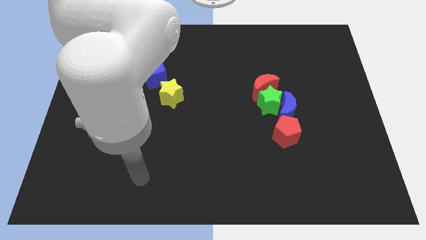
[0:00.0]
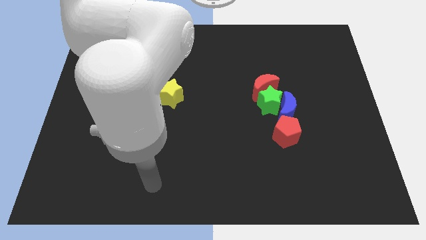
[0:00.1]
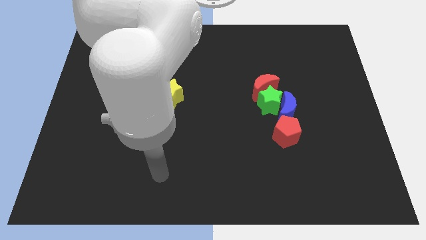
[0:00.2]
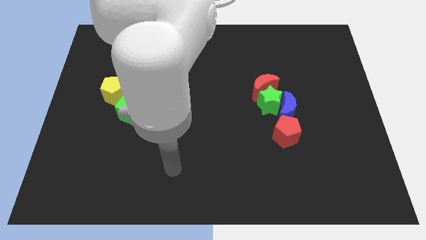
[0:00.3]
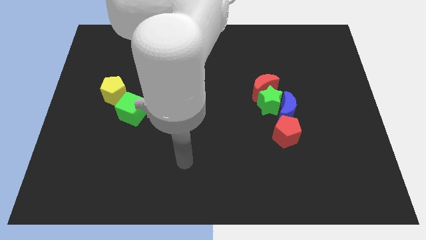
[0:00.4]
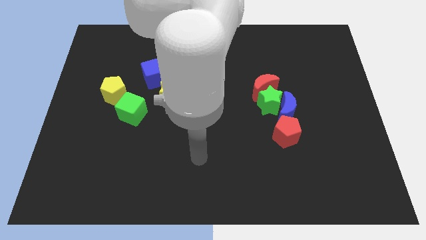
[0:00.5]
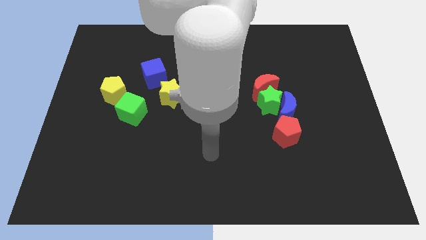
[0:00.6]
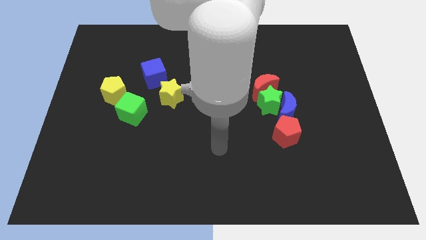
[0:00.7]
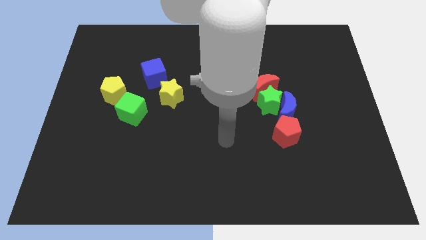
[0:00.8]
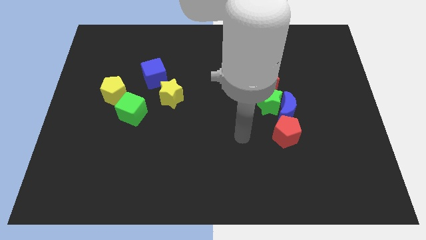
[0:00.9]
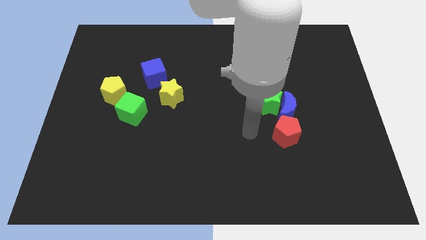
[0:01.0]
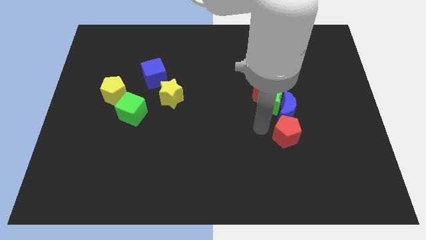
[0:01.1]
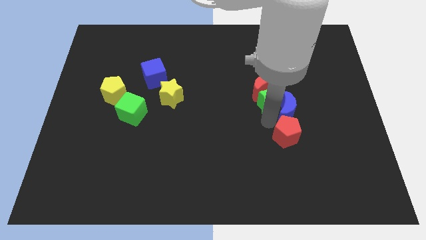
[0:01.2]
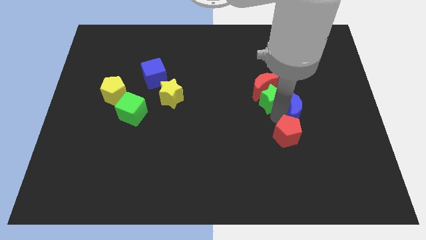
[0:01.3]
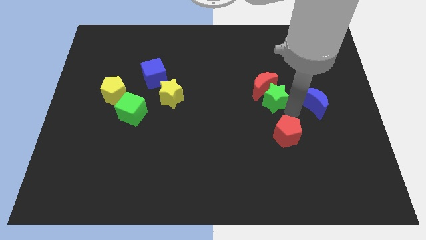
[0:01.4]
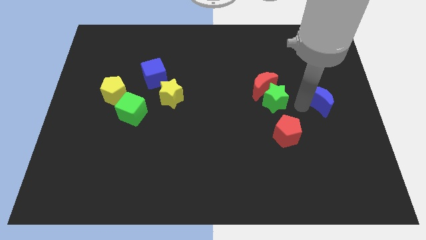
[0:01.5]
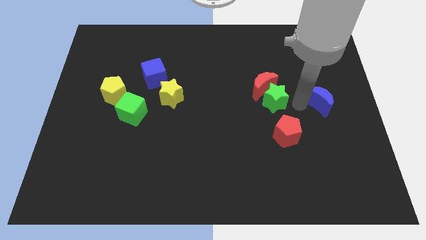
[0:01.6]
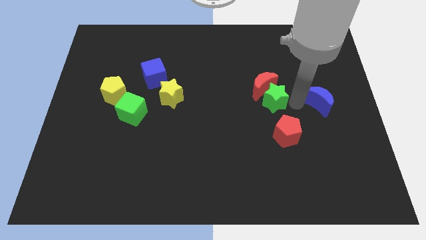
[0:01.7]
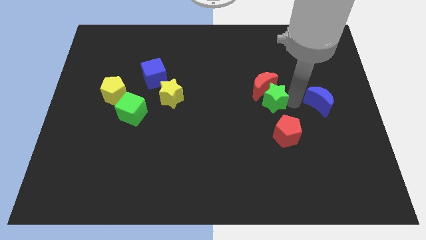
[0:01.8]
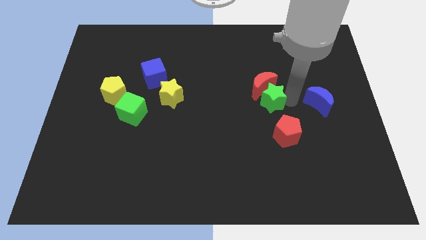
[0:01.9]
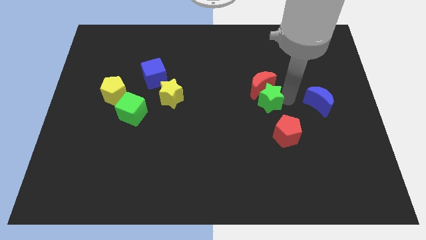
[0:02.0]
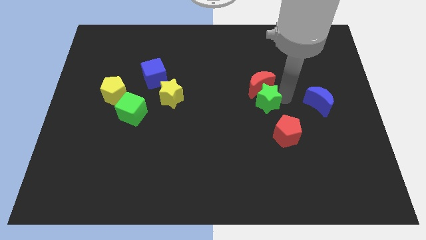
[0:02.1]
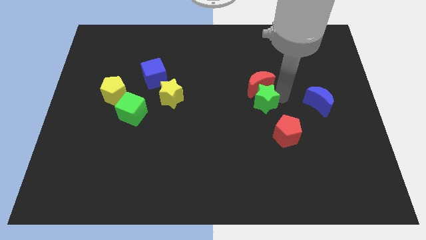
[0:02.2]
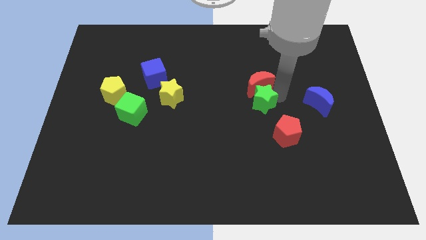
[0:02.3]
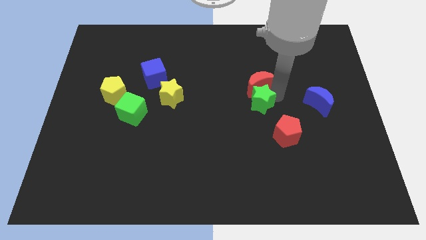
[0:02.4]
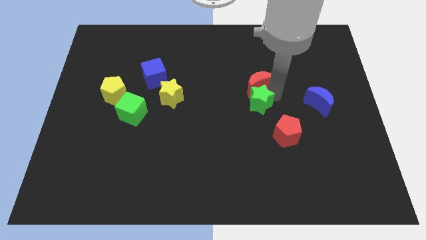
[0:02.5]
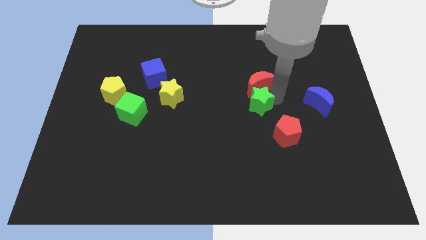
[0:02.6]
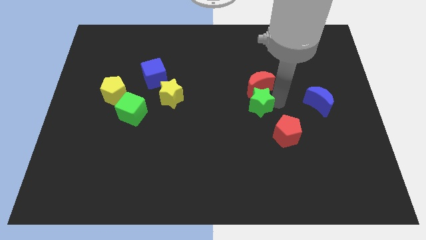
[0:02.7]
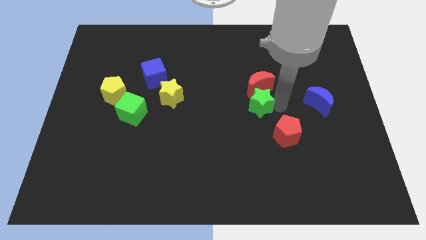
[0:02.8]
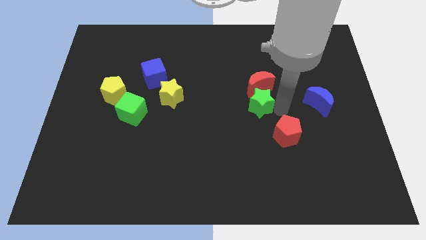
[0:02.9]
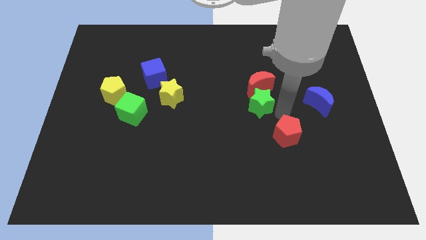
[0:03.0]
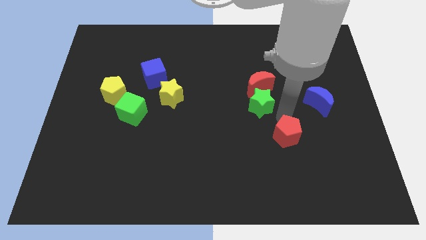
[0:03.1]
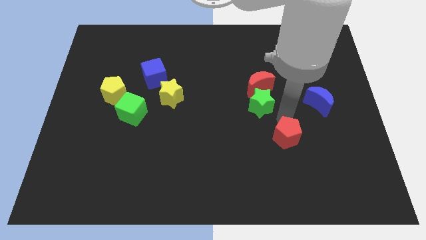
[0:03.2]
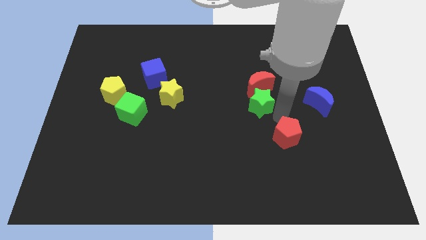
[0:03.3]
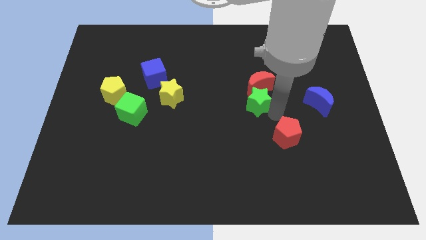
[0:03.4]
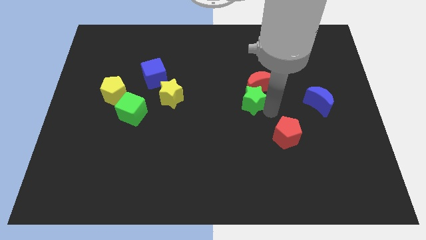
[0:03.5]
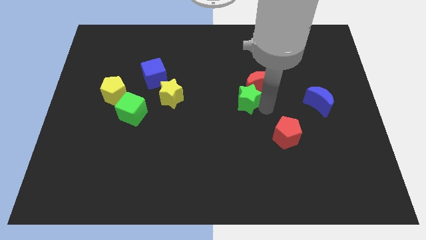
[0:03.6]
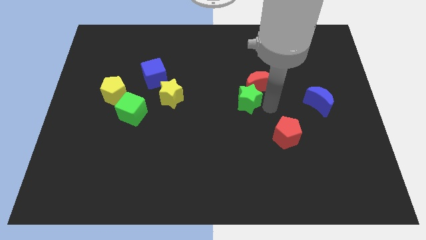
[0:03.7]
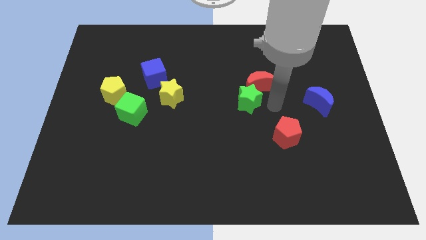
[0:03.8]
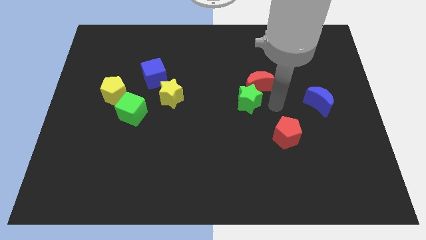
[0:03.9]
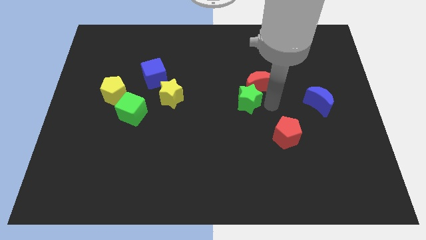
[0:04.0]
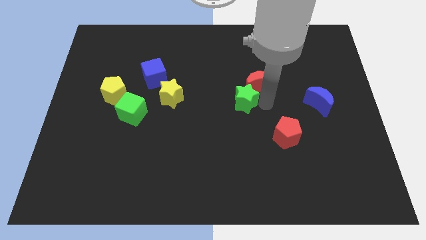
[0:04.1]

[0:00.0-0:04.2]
move the green star away from the blue moon, red moon, and red pentagon

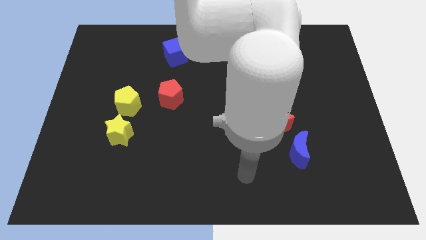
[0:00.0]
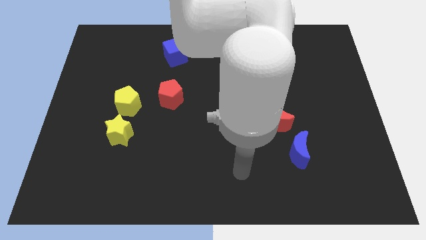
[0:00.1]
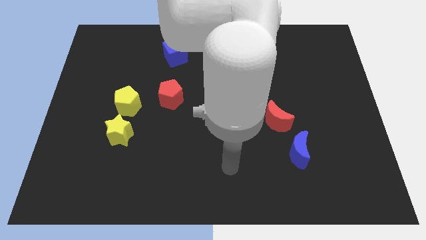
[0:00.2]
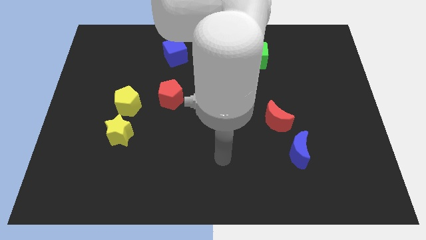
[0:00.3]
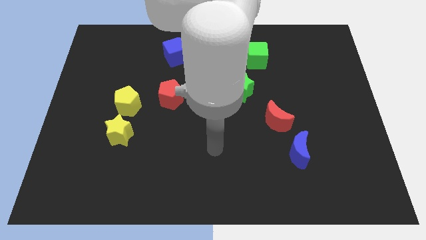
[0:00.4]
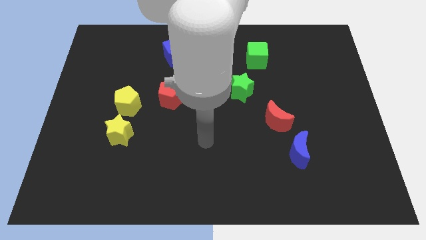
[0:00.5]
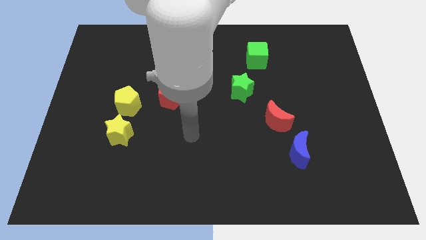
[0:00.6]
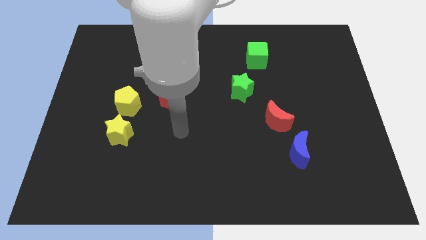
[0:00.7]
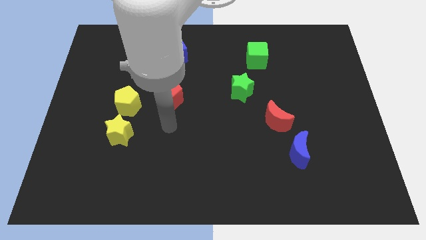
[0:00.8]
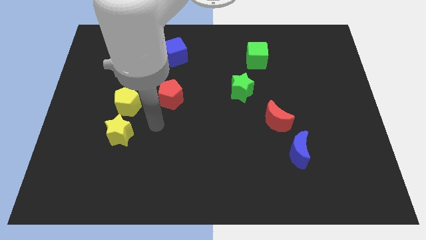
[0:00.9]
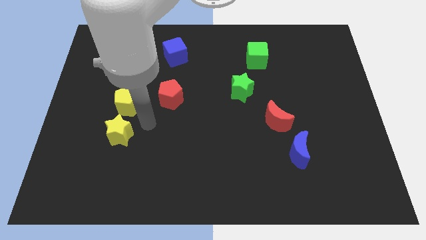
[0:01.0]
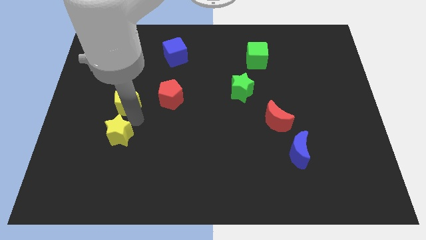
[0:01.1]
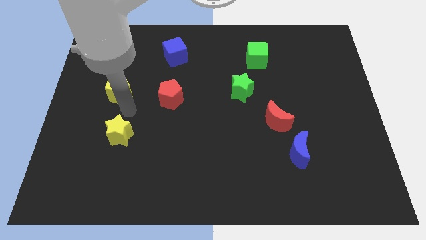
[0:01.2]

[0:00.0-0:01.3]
move the yellow star away from the yellow pentagon

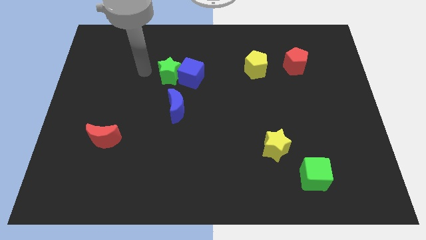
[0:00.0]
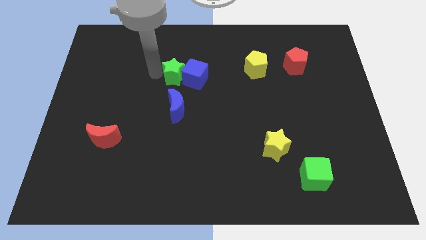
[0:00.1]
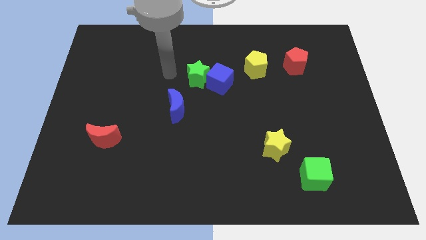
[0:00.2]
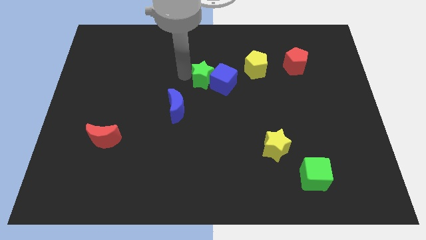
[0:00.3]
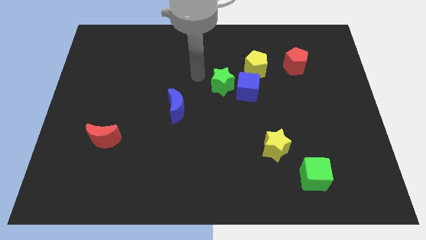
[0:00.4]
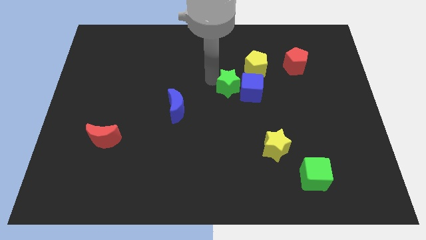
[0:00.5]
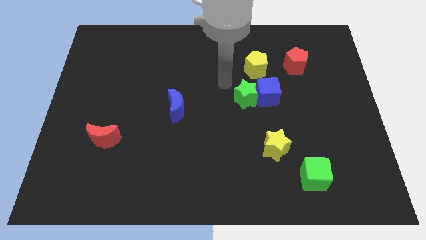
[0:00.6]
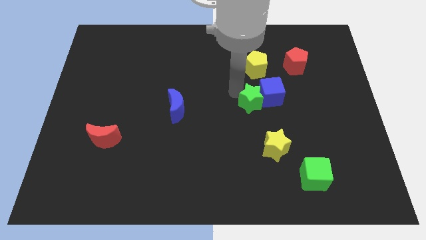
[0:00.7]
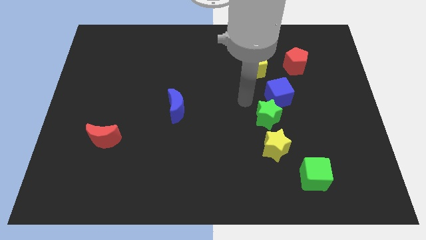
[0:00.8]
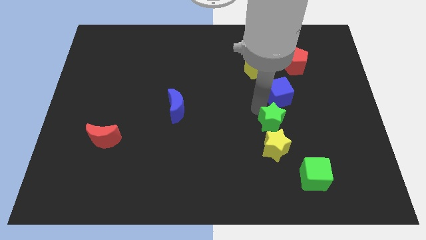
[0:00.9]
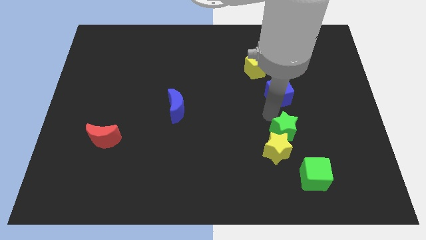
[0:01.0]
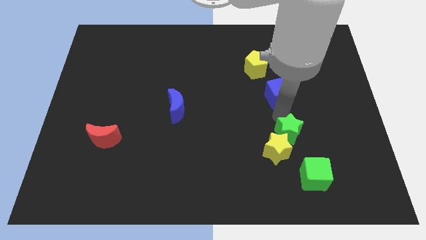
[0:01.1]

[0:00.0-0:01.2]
separate the blue cube from the green star

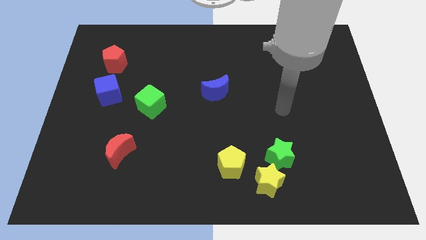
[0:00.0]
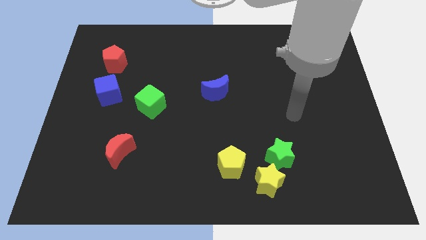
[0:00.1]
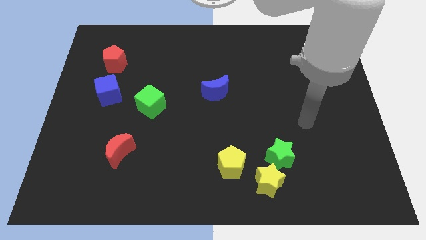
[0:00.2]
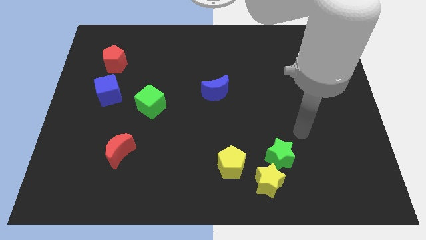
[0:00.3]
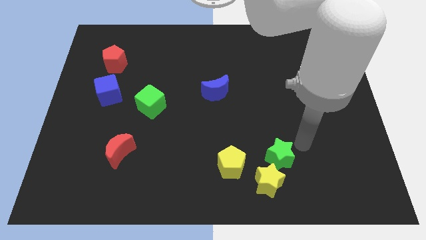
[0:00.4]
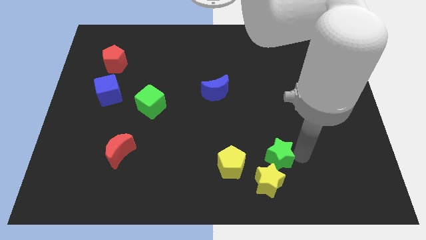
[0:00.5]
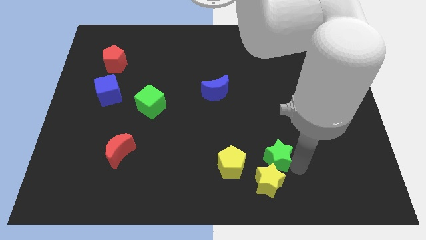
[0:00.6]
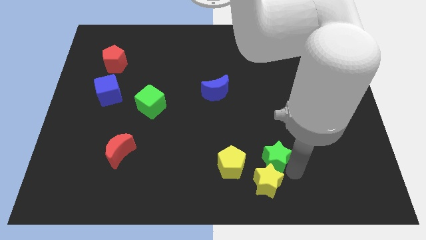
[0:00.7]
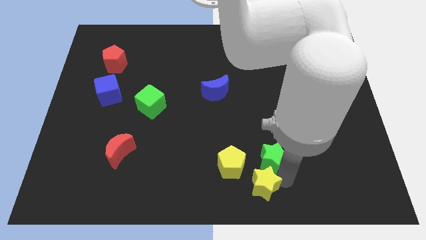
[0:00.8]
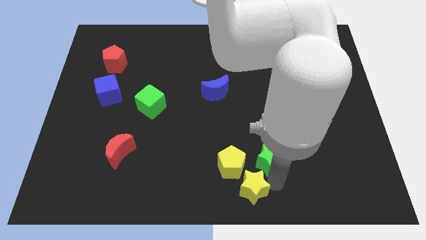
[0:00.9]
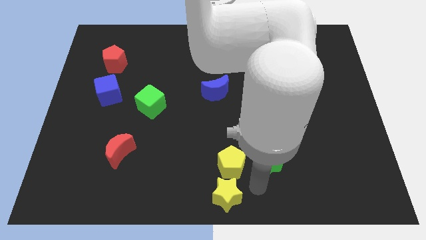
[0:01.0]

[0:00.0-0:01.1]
separate the green star from the yellow star

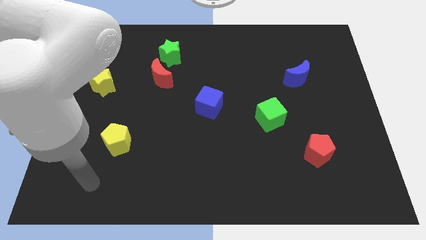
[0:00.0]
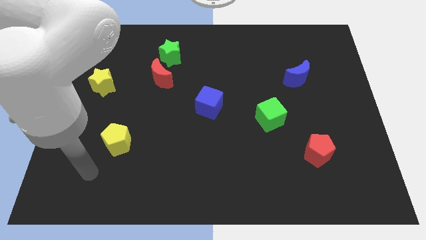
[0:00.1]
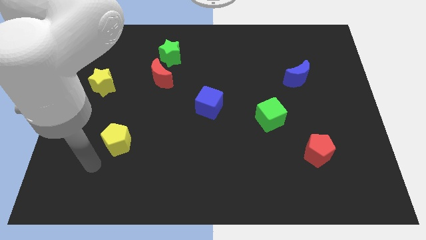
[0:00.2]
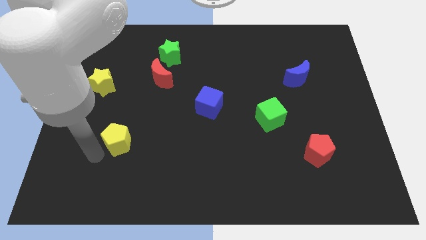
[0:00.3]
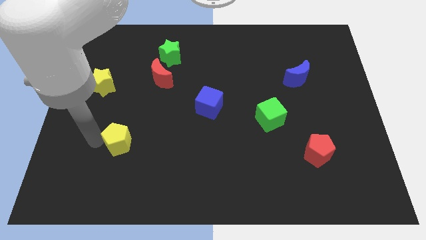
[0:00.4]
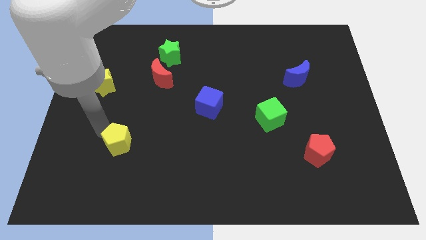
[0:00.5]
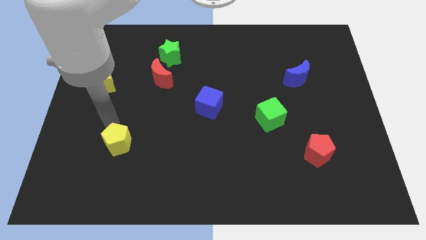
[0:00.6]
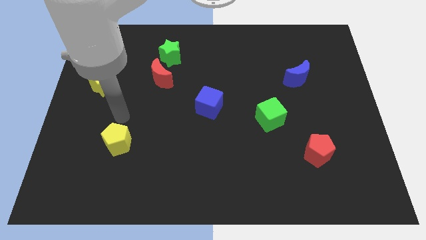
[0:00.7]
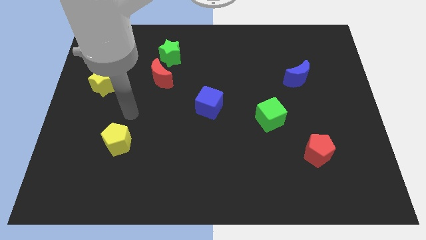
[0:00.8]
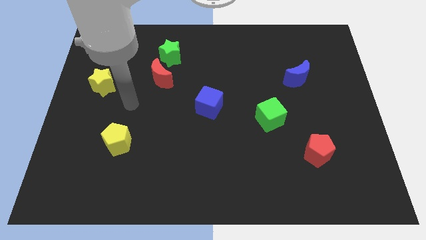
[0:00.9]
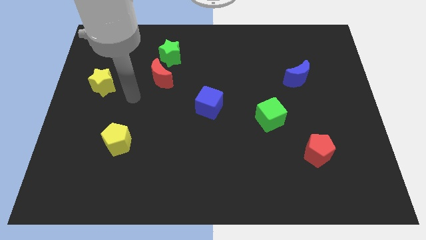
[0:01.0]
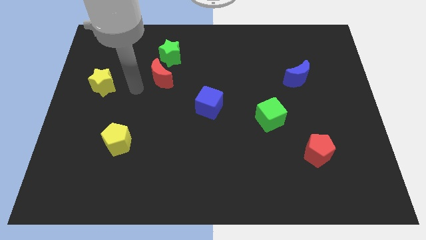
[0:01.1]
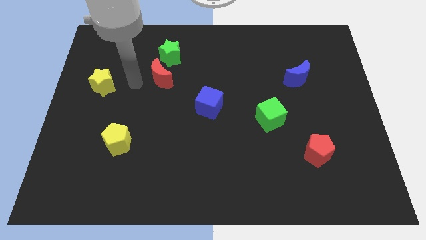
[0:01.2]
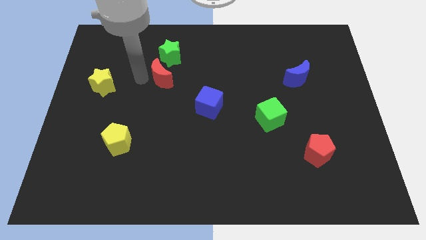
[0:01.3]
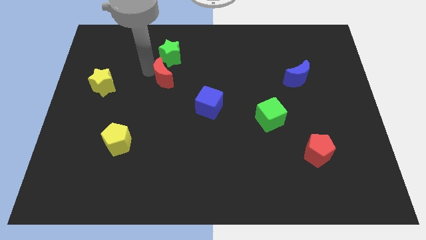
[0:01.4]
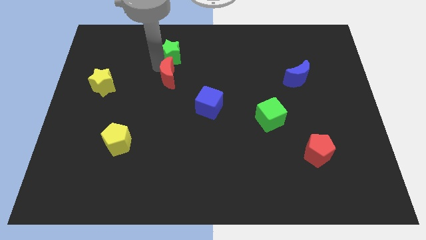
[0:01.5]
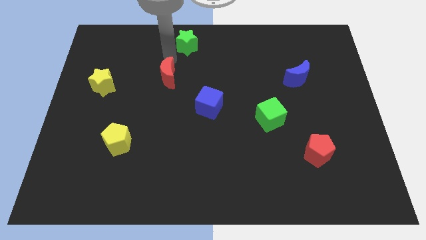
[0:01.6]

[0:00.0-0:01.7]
separate the red moon from the green star
